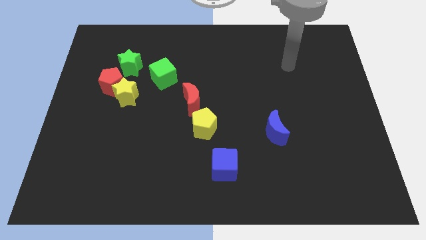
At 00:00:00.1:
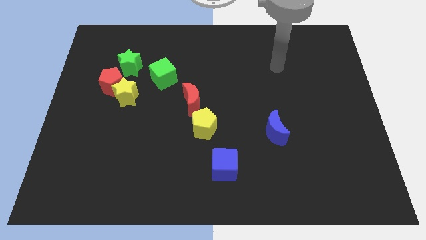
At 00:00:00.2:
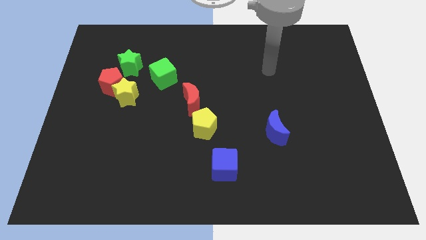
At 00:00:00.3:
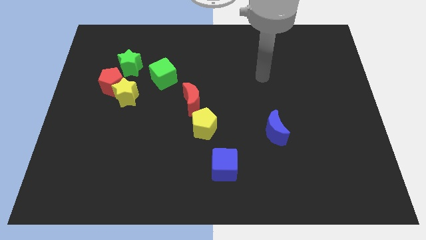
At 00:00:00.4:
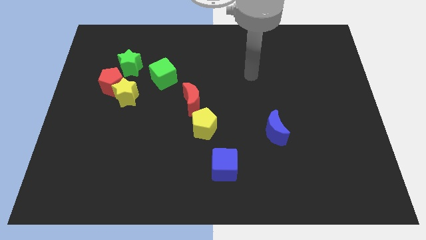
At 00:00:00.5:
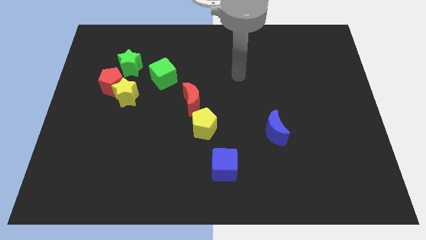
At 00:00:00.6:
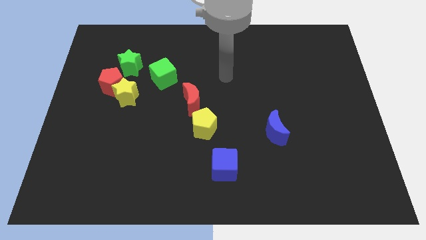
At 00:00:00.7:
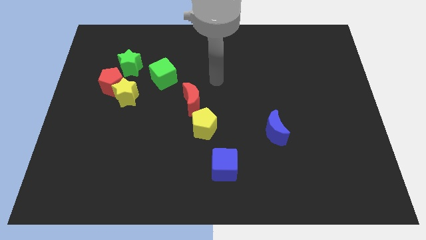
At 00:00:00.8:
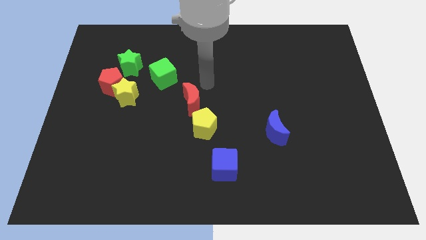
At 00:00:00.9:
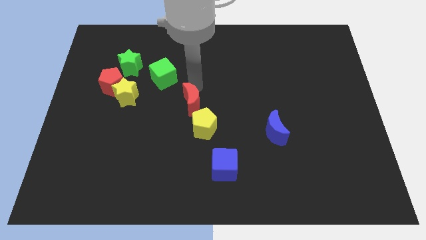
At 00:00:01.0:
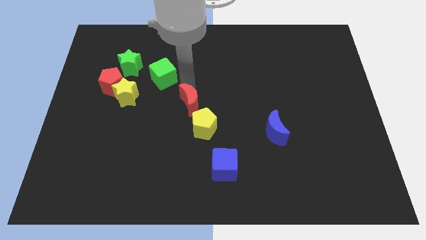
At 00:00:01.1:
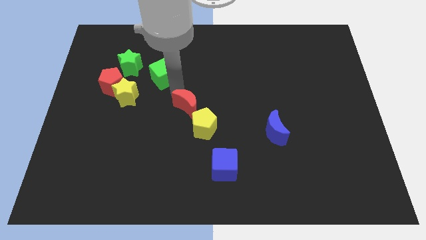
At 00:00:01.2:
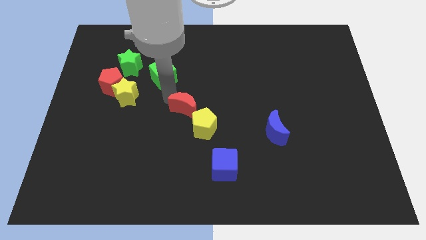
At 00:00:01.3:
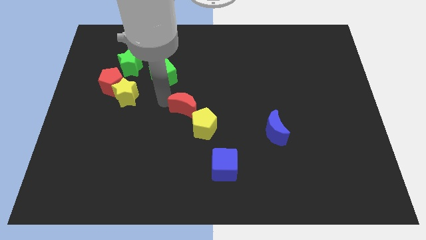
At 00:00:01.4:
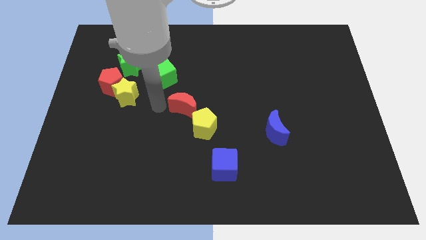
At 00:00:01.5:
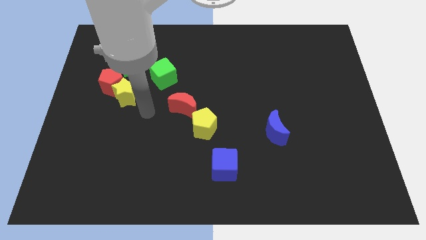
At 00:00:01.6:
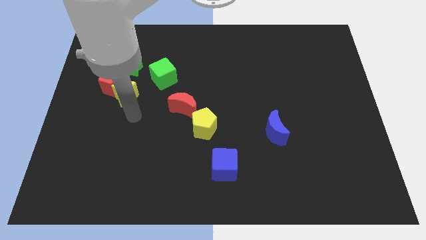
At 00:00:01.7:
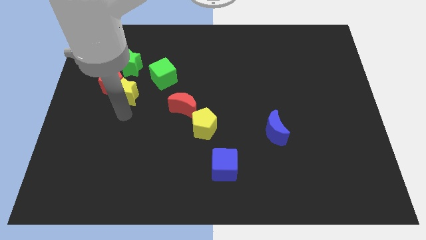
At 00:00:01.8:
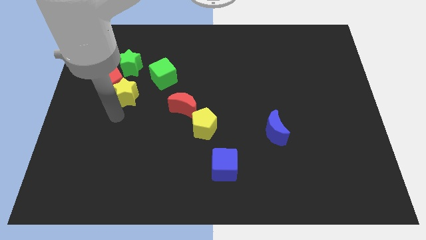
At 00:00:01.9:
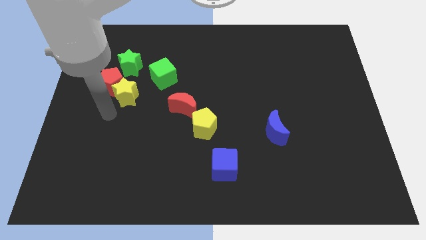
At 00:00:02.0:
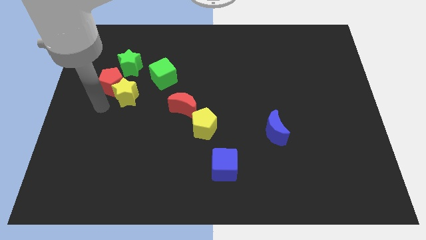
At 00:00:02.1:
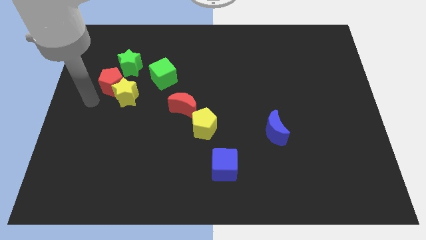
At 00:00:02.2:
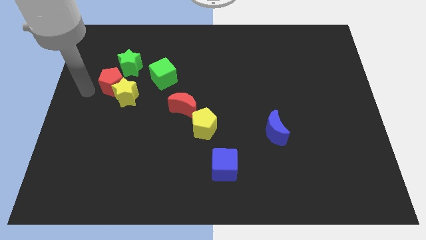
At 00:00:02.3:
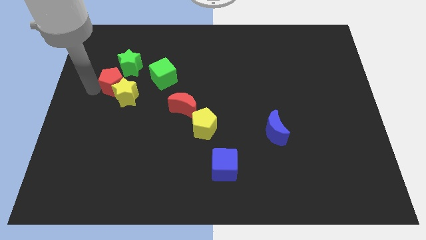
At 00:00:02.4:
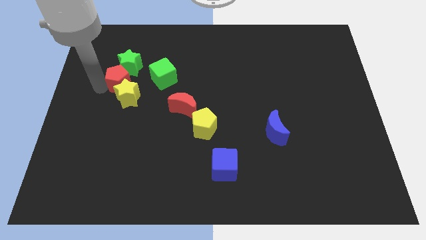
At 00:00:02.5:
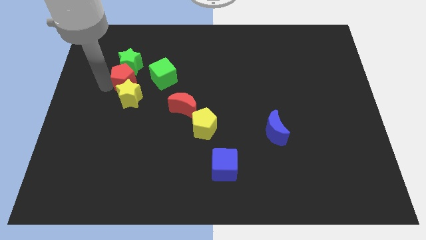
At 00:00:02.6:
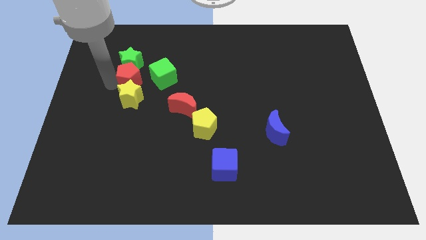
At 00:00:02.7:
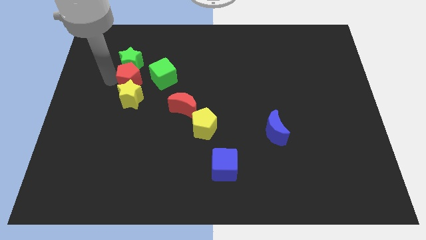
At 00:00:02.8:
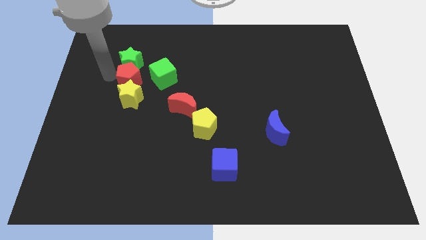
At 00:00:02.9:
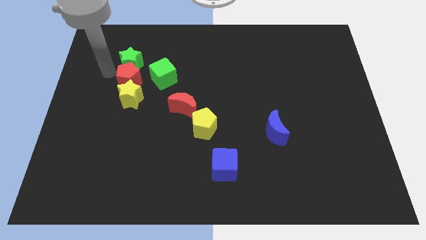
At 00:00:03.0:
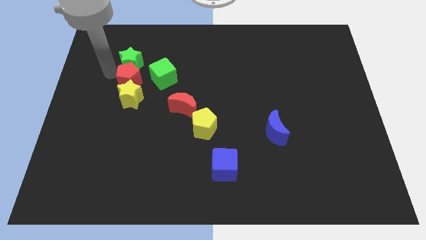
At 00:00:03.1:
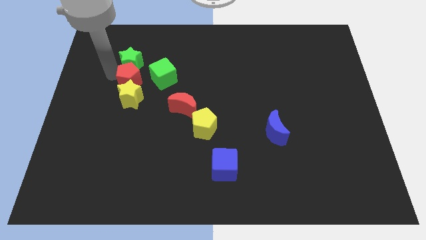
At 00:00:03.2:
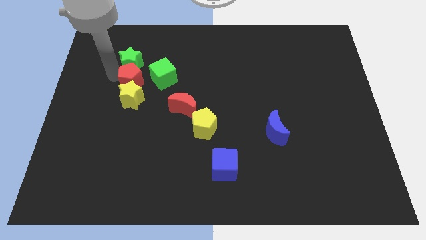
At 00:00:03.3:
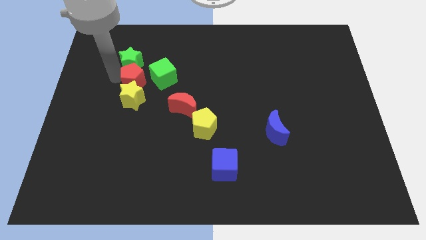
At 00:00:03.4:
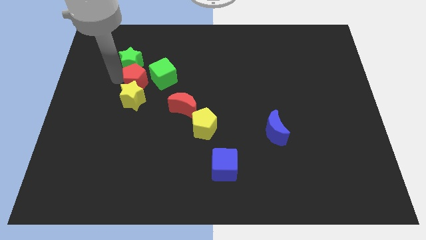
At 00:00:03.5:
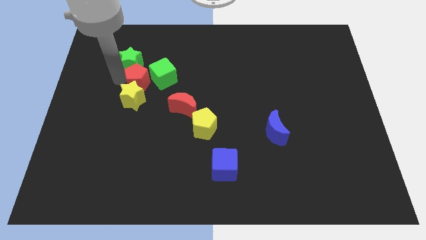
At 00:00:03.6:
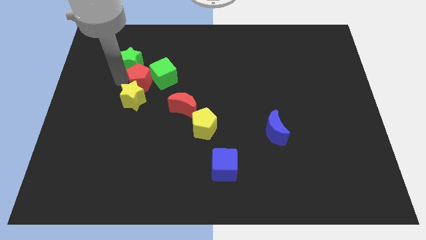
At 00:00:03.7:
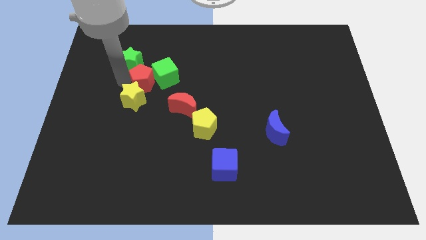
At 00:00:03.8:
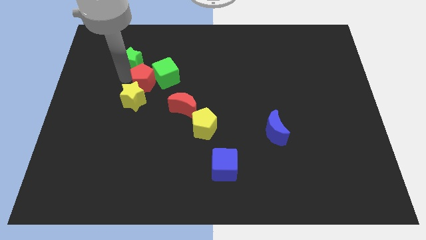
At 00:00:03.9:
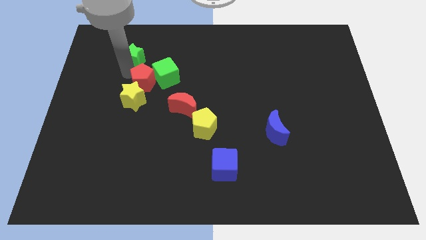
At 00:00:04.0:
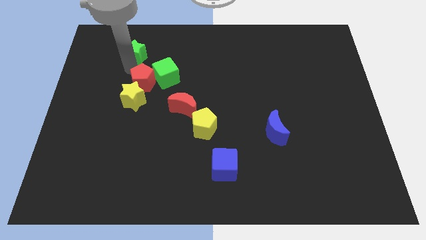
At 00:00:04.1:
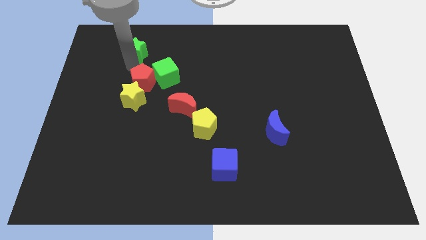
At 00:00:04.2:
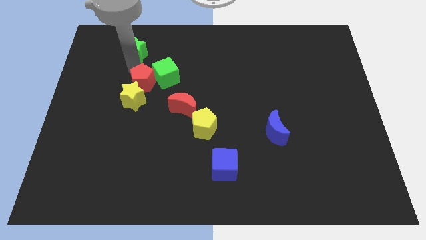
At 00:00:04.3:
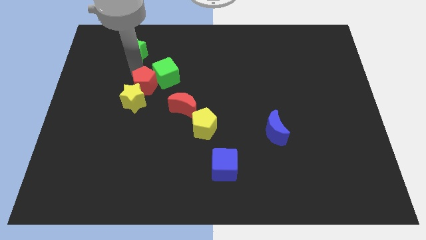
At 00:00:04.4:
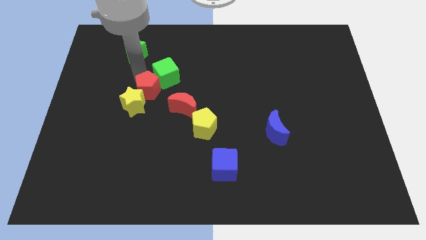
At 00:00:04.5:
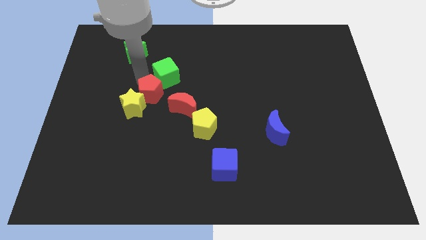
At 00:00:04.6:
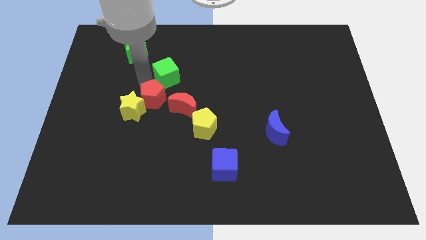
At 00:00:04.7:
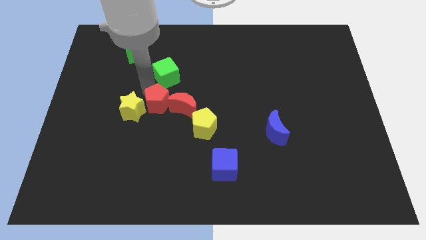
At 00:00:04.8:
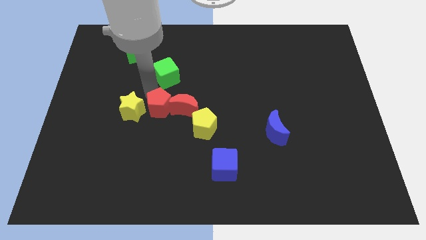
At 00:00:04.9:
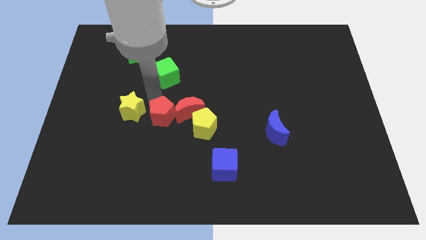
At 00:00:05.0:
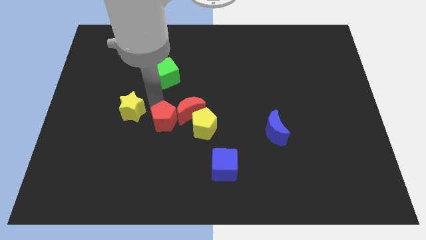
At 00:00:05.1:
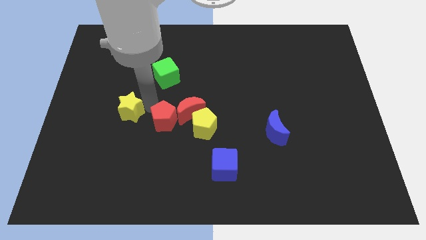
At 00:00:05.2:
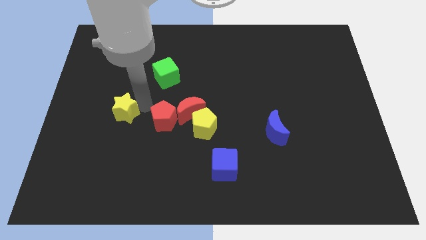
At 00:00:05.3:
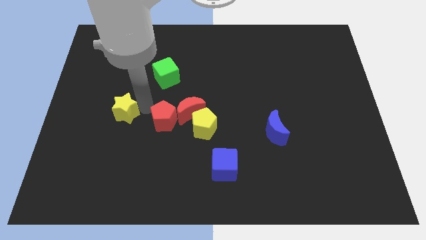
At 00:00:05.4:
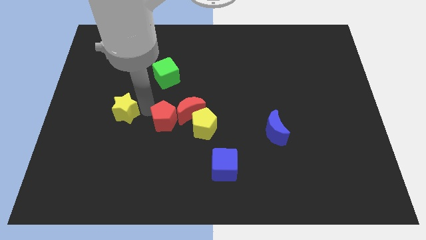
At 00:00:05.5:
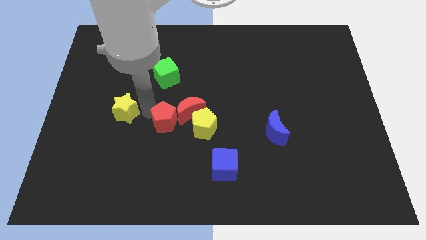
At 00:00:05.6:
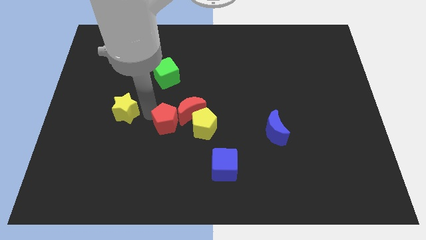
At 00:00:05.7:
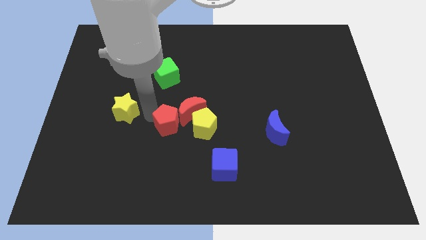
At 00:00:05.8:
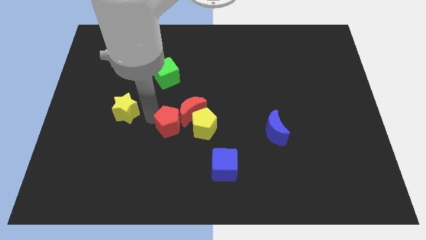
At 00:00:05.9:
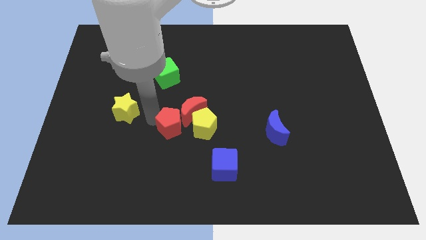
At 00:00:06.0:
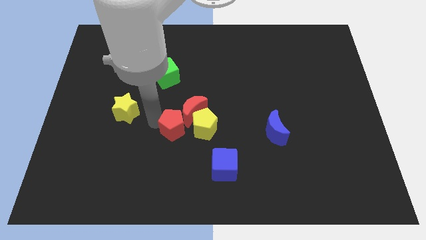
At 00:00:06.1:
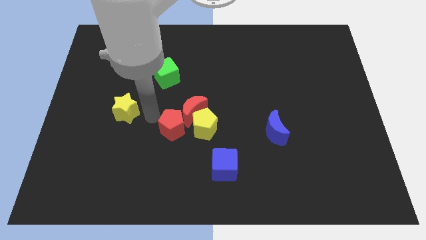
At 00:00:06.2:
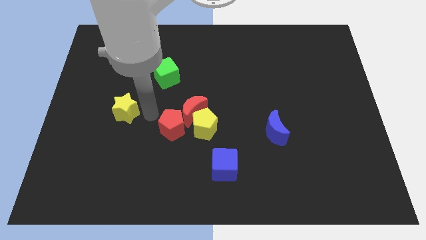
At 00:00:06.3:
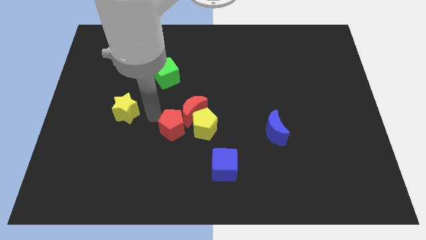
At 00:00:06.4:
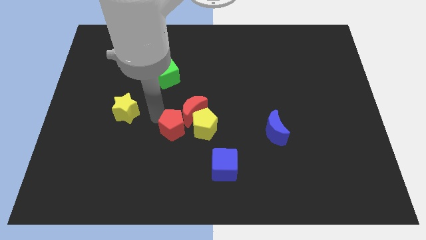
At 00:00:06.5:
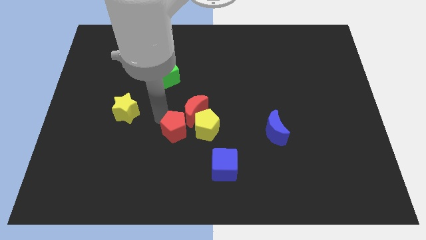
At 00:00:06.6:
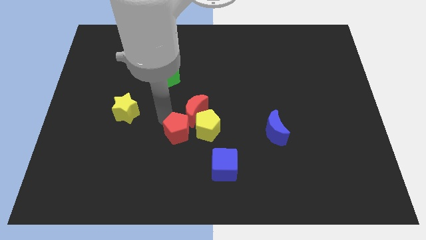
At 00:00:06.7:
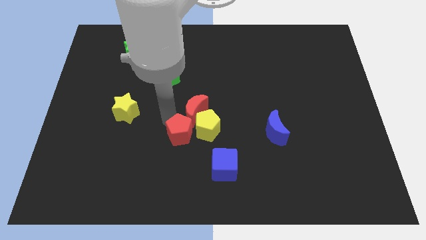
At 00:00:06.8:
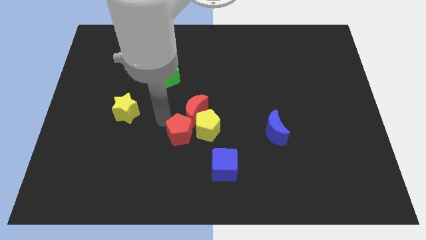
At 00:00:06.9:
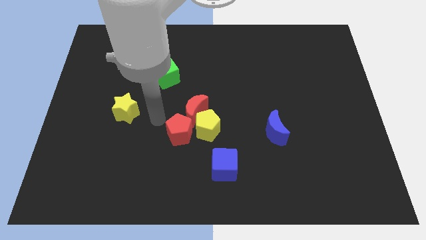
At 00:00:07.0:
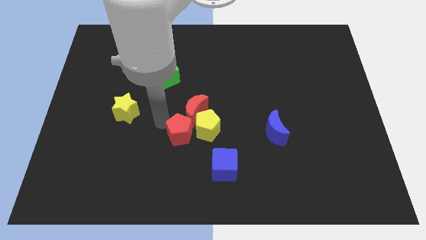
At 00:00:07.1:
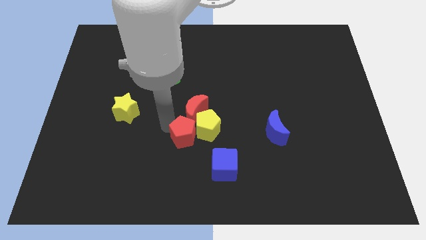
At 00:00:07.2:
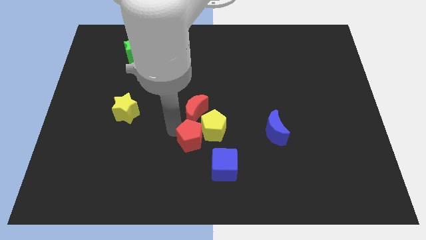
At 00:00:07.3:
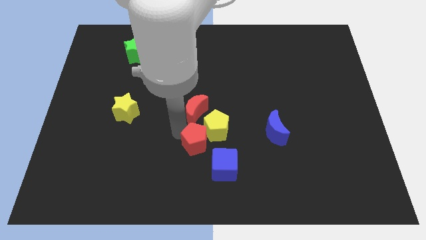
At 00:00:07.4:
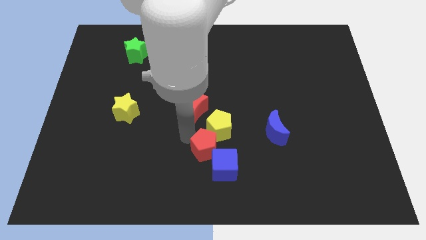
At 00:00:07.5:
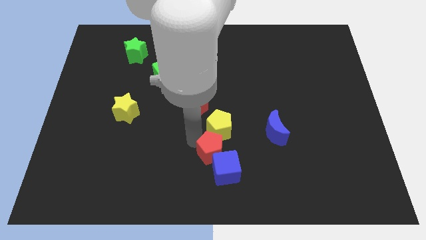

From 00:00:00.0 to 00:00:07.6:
put the red pentagon close to the blue cube
